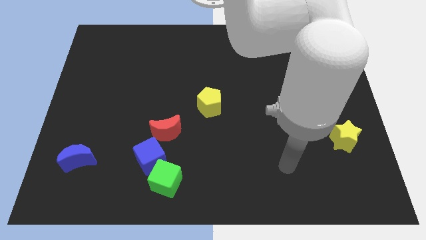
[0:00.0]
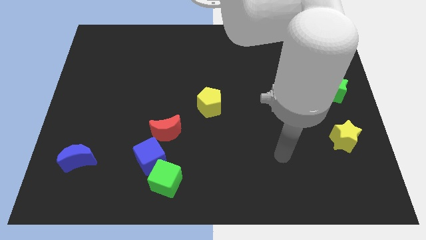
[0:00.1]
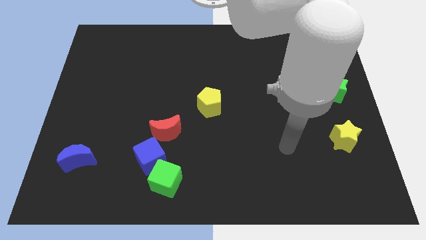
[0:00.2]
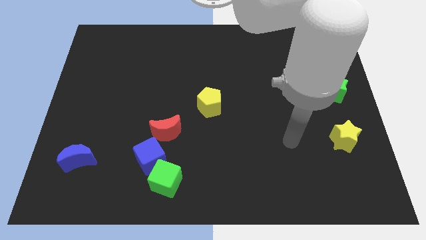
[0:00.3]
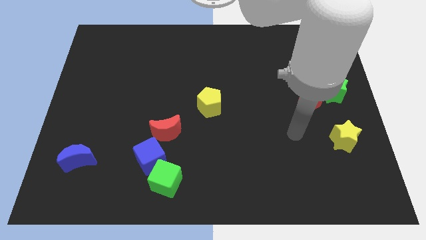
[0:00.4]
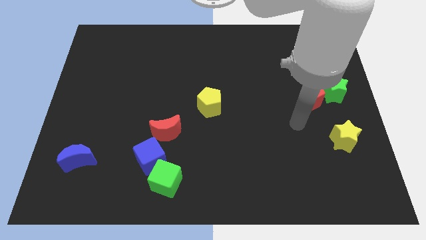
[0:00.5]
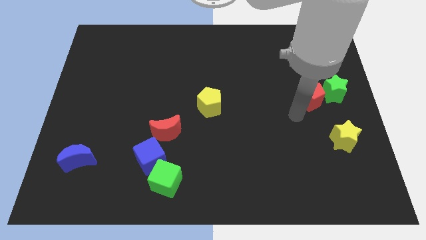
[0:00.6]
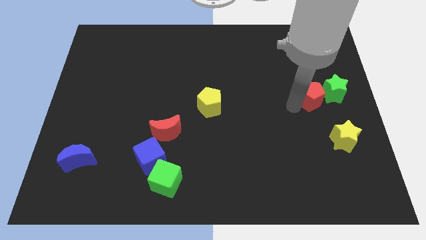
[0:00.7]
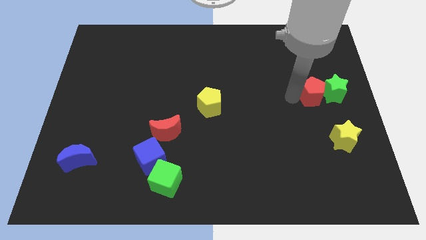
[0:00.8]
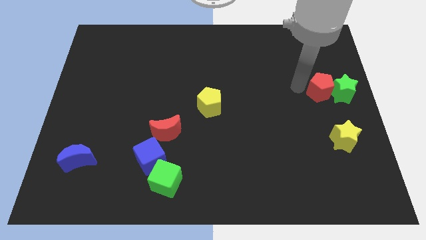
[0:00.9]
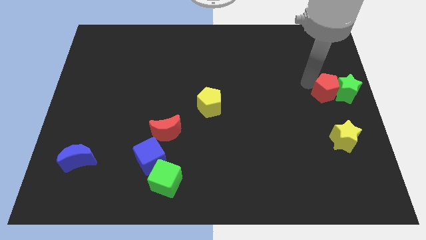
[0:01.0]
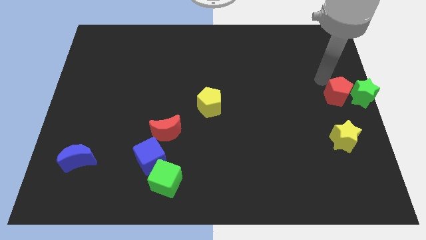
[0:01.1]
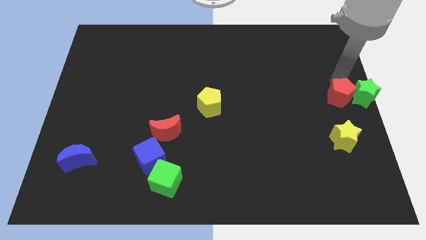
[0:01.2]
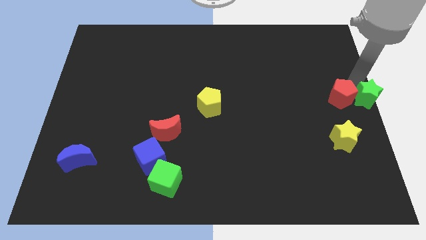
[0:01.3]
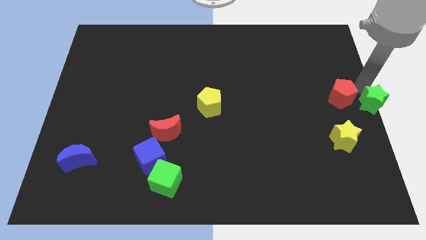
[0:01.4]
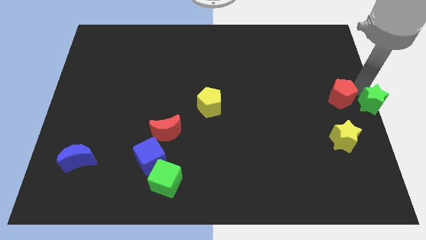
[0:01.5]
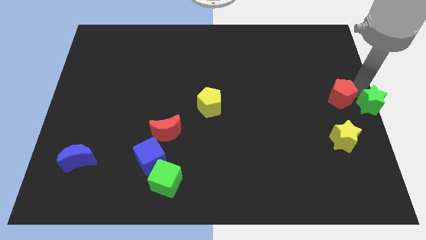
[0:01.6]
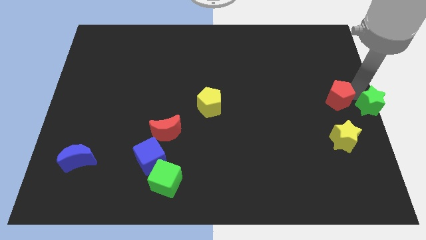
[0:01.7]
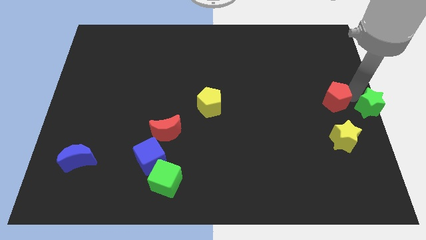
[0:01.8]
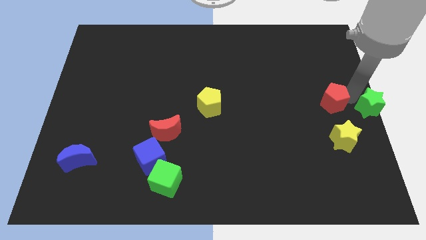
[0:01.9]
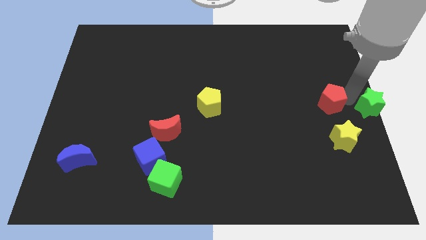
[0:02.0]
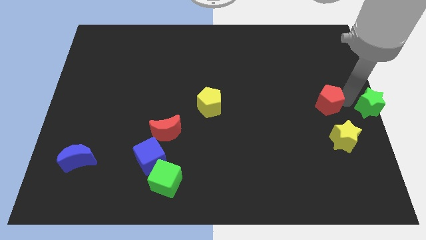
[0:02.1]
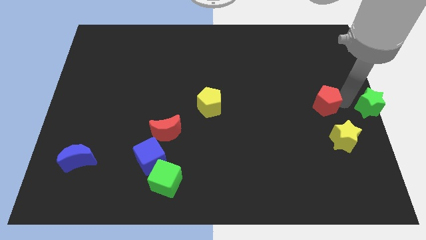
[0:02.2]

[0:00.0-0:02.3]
pull the red pentagon apart from the green star

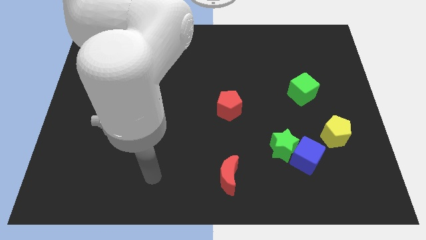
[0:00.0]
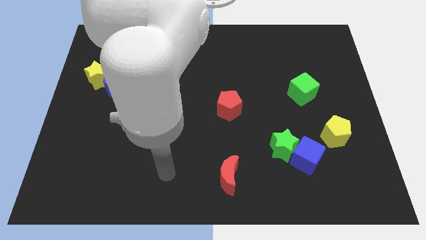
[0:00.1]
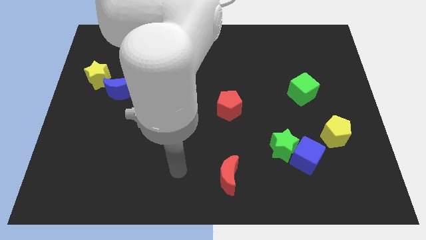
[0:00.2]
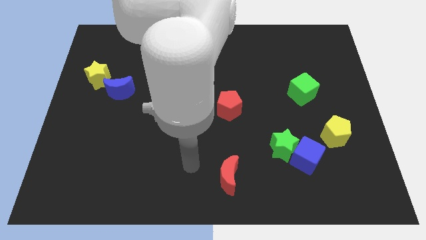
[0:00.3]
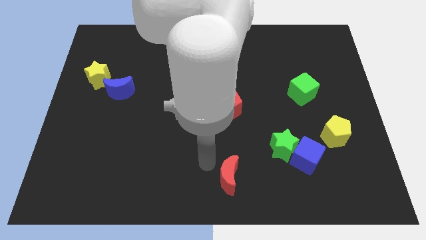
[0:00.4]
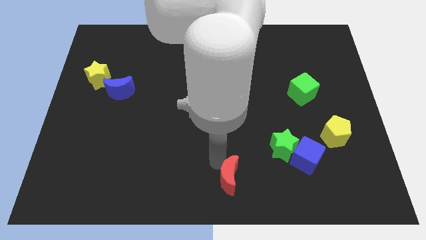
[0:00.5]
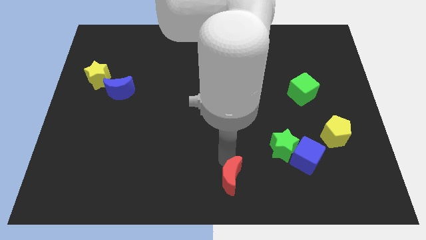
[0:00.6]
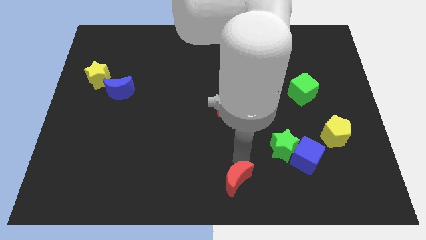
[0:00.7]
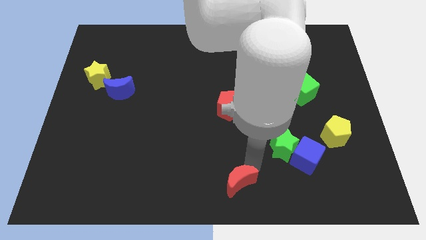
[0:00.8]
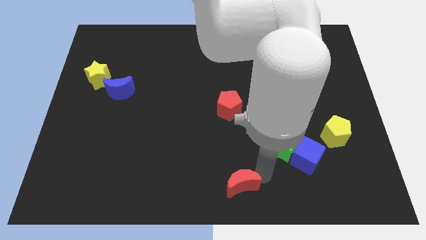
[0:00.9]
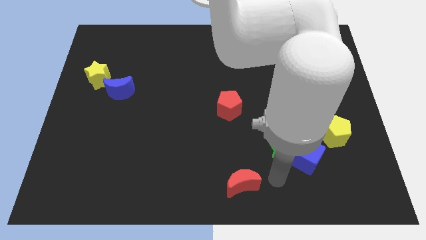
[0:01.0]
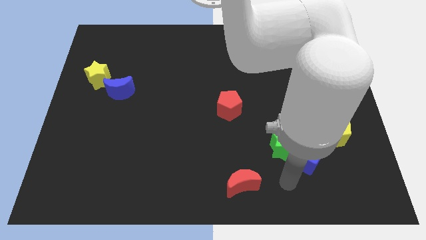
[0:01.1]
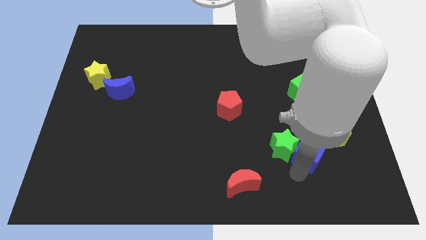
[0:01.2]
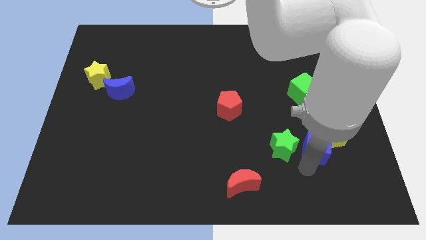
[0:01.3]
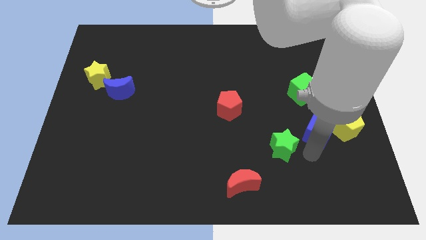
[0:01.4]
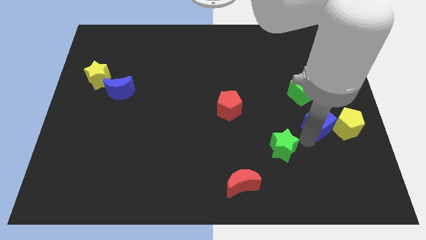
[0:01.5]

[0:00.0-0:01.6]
move the green star away from the blue cube

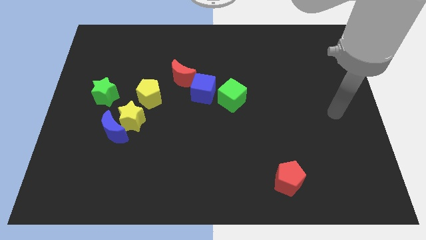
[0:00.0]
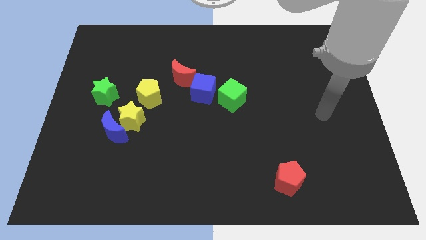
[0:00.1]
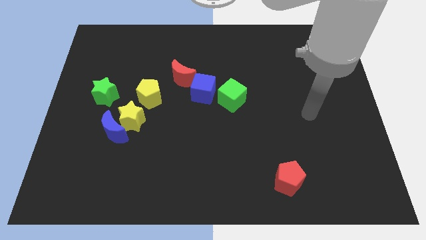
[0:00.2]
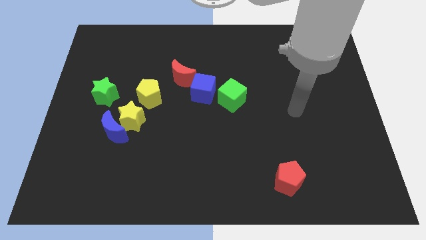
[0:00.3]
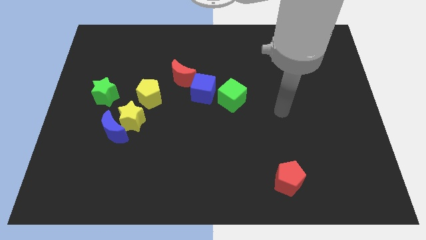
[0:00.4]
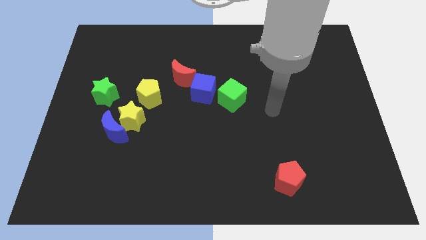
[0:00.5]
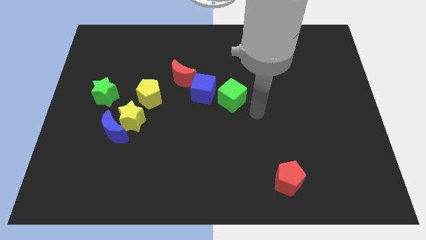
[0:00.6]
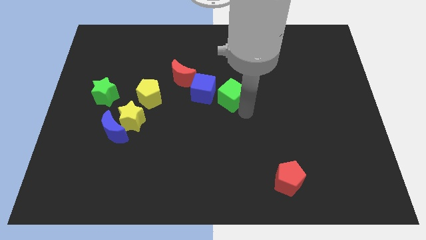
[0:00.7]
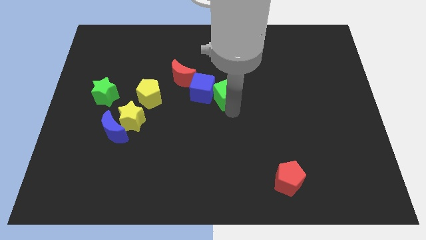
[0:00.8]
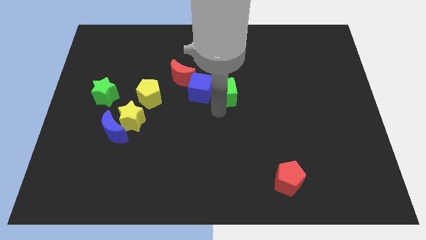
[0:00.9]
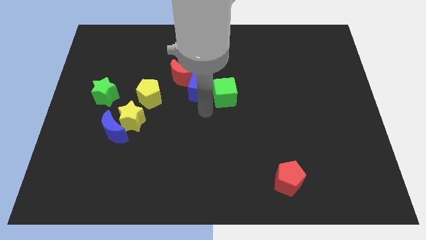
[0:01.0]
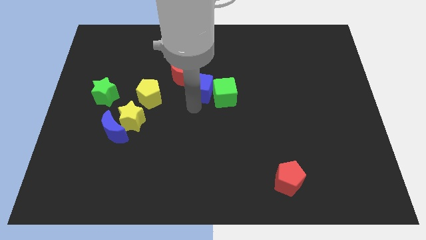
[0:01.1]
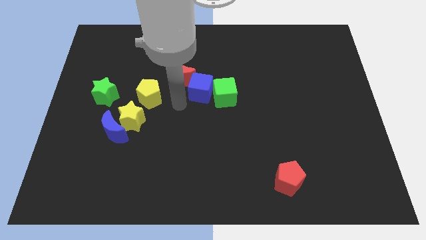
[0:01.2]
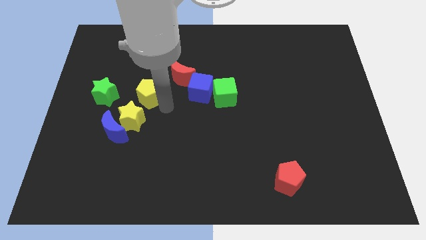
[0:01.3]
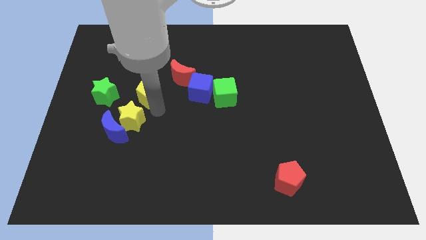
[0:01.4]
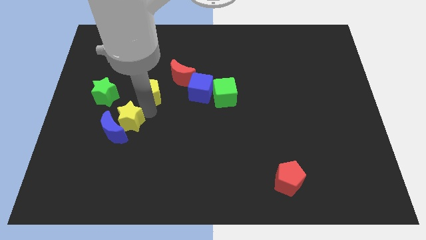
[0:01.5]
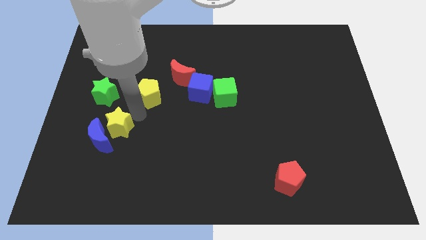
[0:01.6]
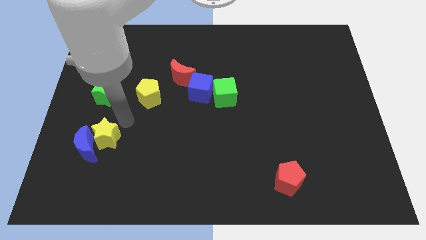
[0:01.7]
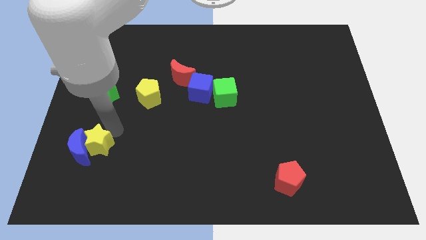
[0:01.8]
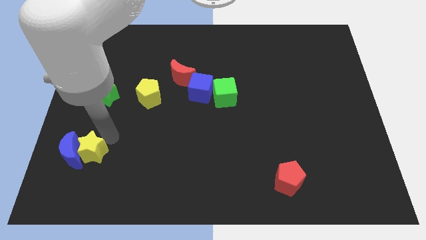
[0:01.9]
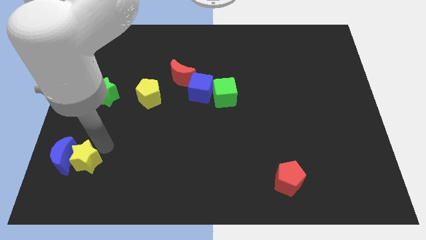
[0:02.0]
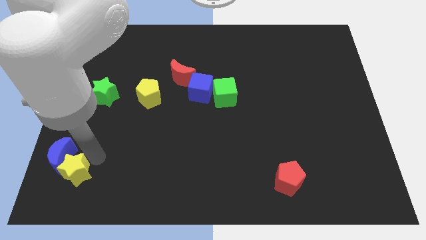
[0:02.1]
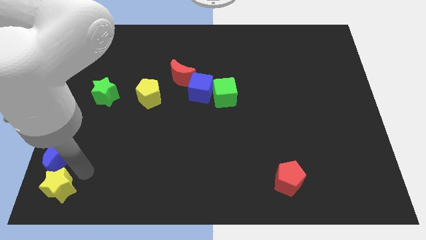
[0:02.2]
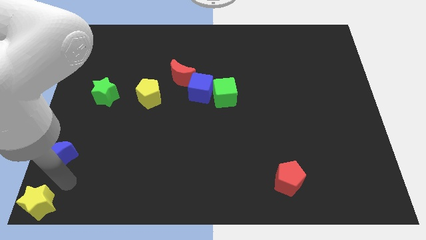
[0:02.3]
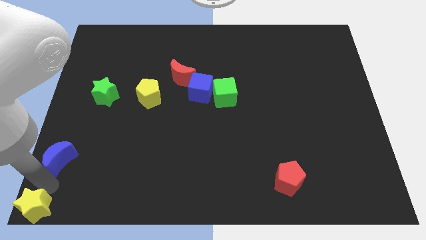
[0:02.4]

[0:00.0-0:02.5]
separate the blue moon from the yellow star

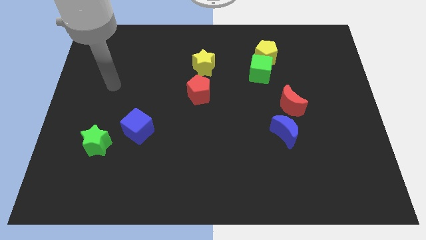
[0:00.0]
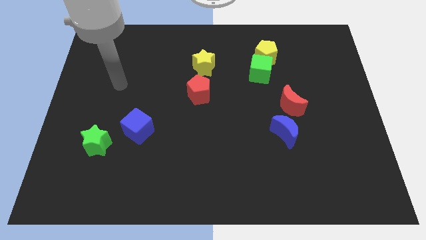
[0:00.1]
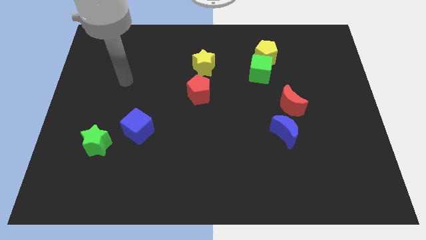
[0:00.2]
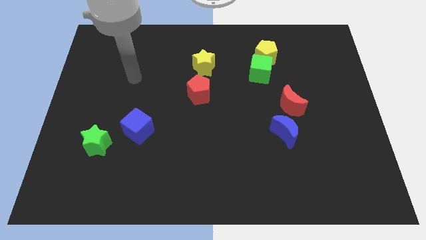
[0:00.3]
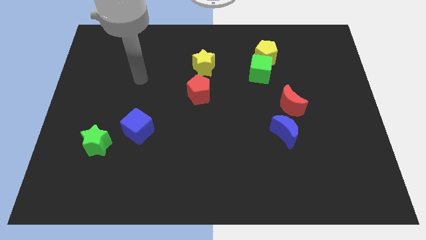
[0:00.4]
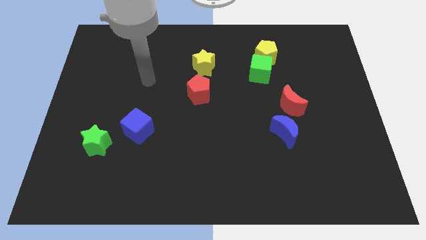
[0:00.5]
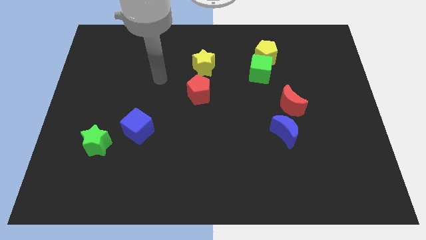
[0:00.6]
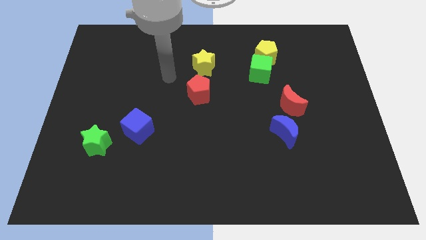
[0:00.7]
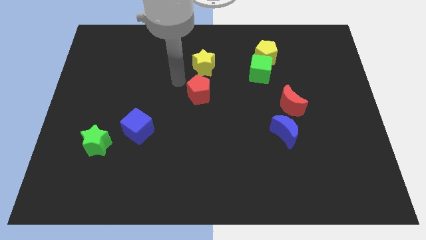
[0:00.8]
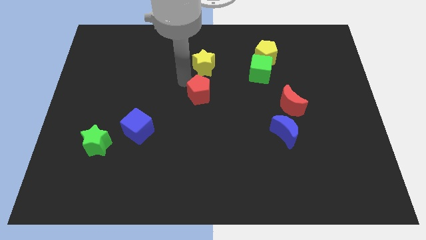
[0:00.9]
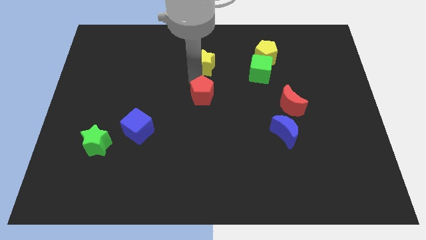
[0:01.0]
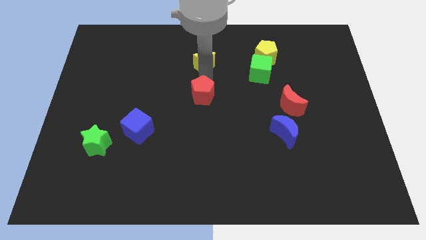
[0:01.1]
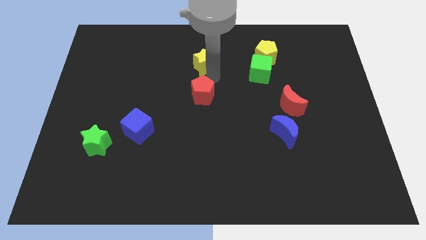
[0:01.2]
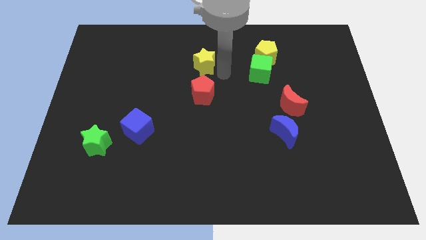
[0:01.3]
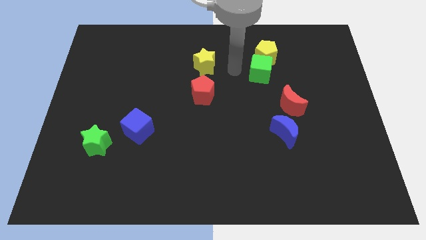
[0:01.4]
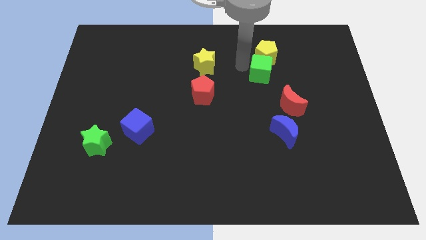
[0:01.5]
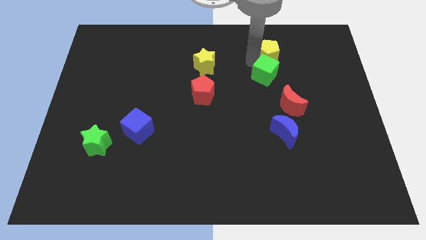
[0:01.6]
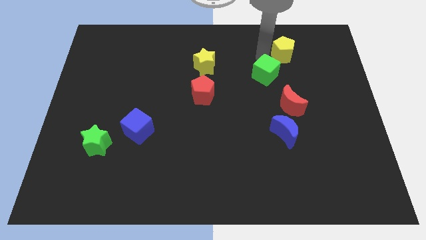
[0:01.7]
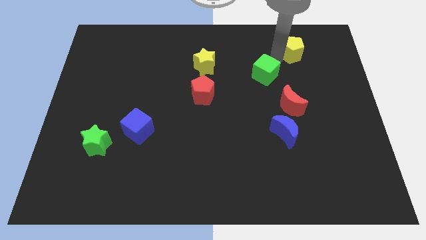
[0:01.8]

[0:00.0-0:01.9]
pull the green cube apart from the yellow pentagon

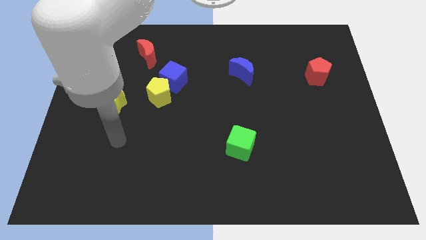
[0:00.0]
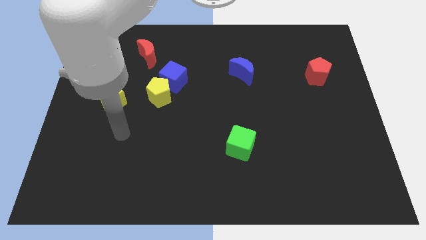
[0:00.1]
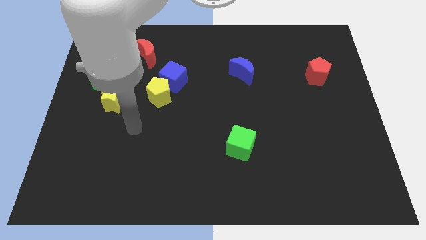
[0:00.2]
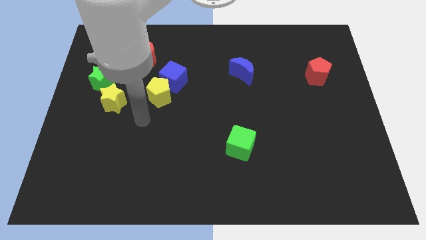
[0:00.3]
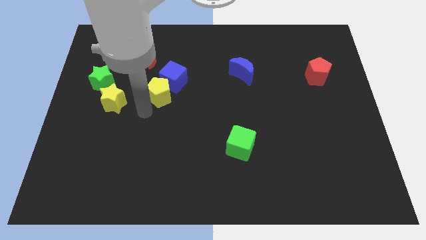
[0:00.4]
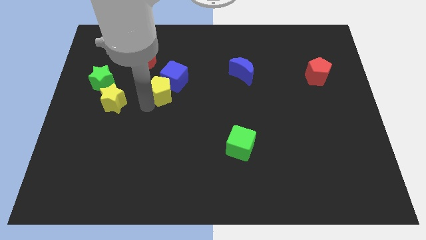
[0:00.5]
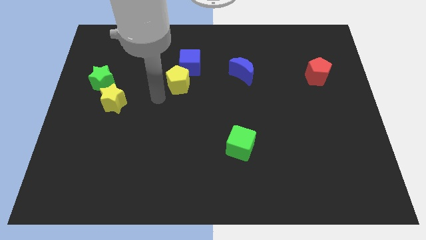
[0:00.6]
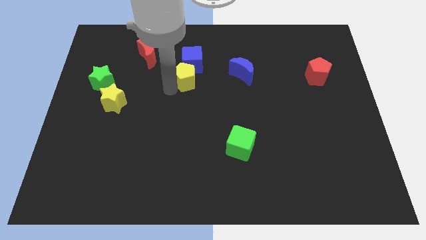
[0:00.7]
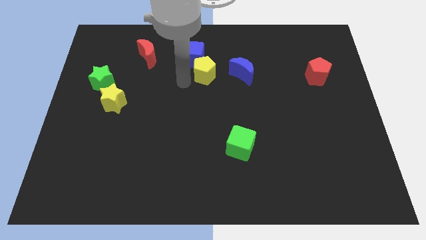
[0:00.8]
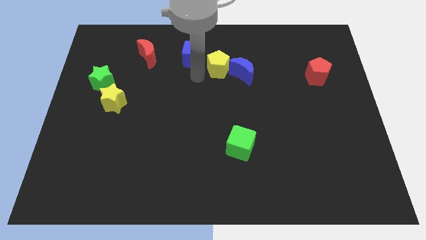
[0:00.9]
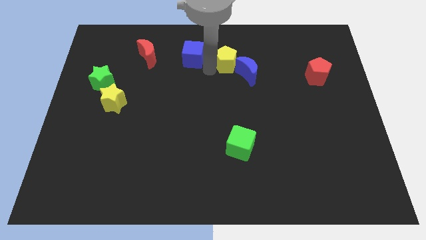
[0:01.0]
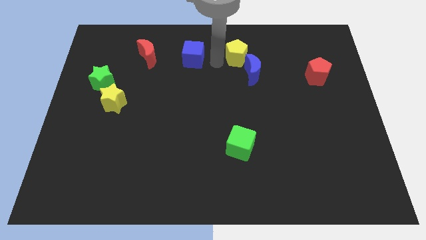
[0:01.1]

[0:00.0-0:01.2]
move the blue cube away from the yellow pentagon
